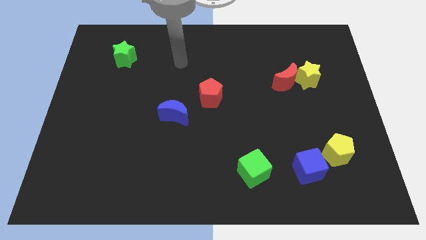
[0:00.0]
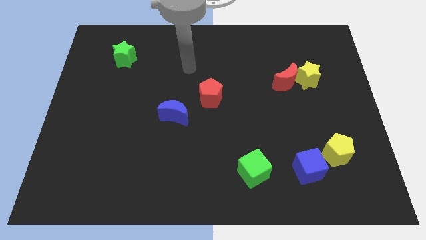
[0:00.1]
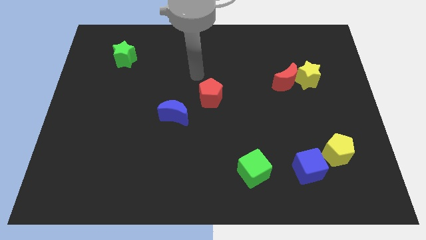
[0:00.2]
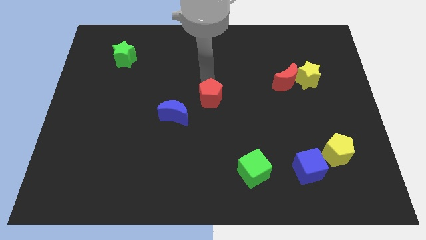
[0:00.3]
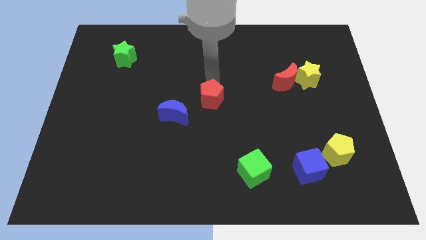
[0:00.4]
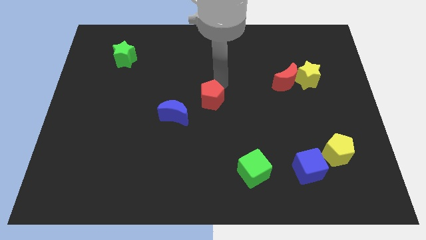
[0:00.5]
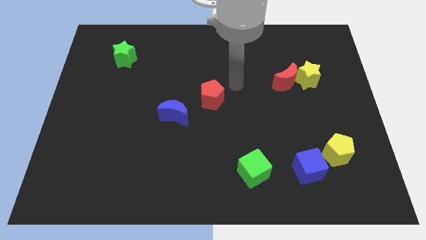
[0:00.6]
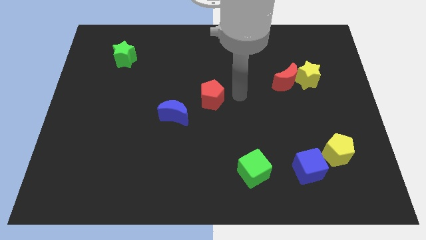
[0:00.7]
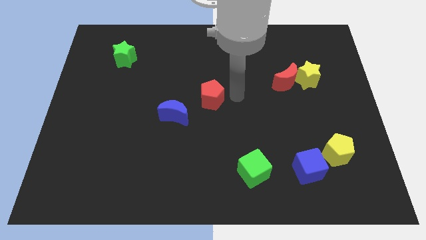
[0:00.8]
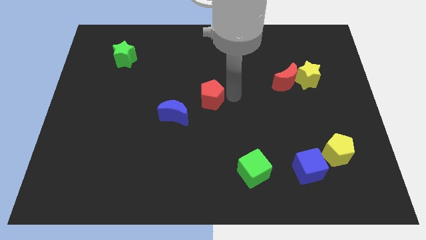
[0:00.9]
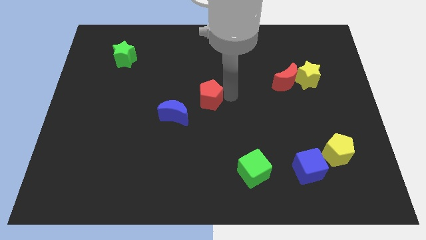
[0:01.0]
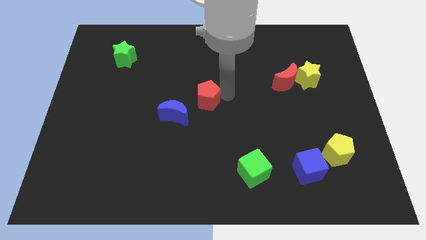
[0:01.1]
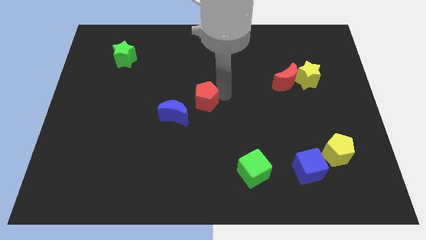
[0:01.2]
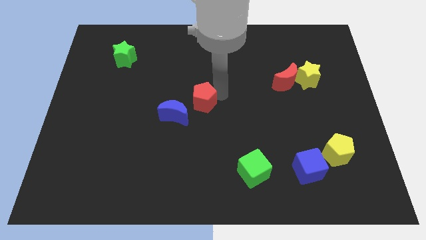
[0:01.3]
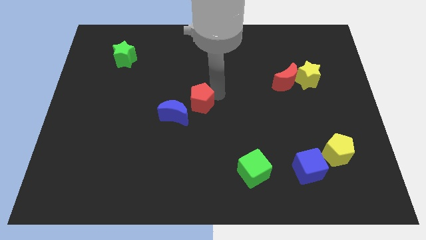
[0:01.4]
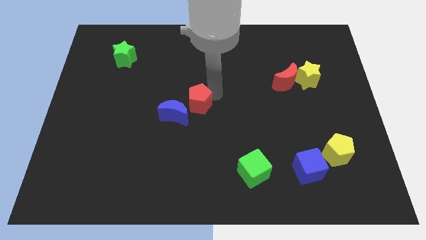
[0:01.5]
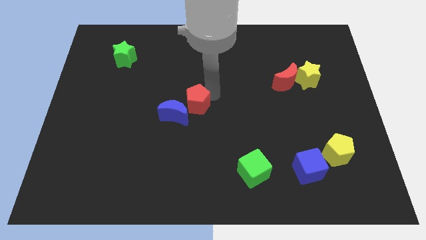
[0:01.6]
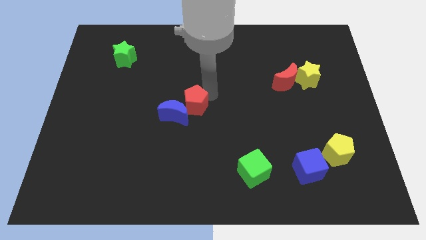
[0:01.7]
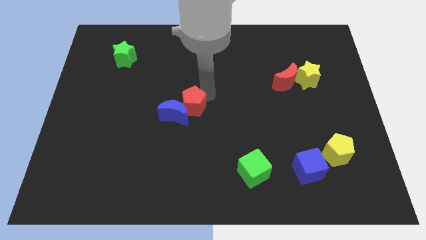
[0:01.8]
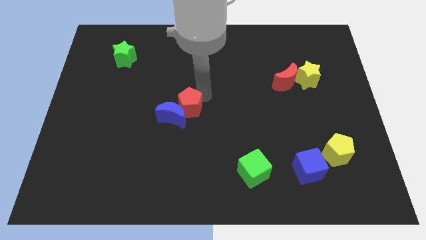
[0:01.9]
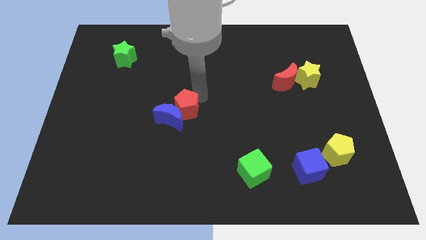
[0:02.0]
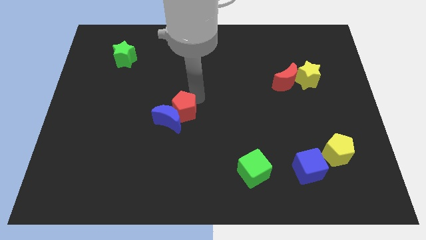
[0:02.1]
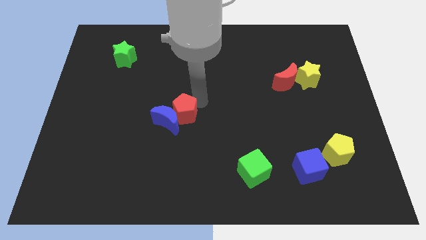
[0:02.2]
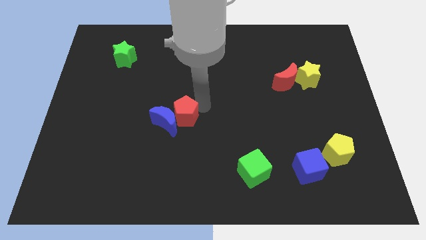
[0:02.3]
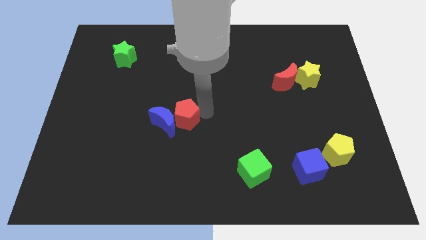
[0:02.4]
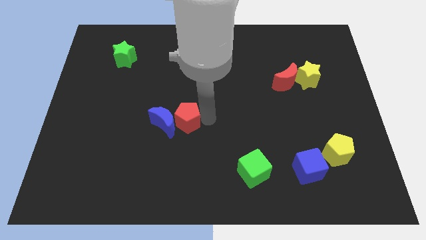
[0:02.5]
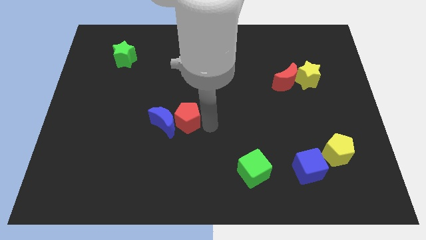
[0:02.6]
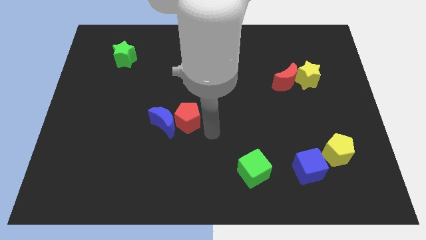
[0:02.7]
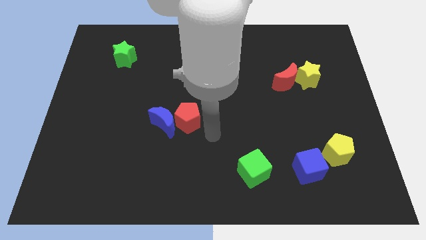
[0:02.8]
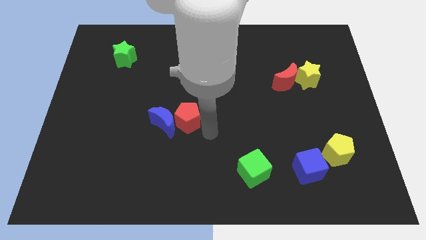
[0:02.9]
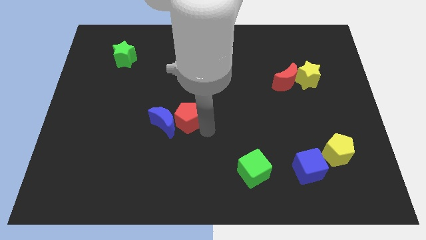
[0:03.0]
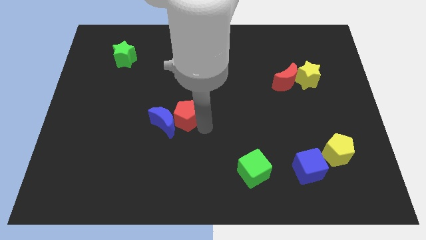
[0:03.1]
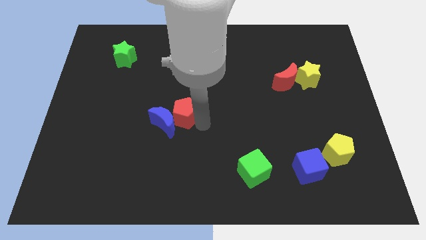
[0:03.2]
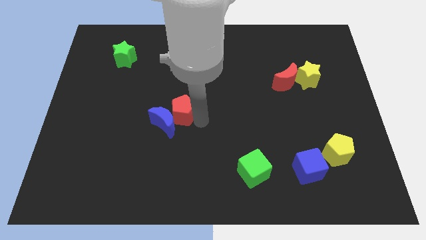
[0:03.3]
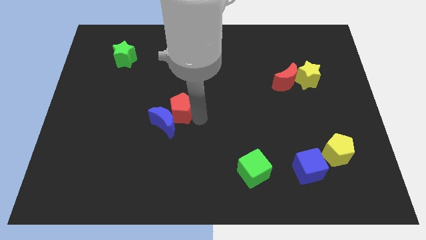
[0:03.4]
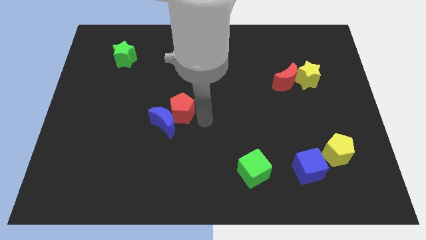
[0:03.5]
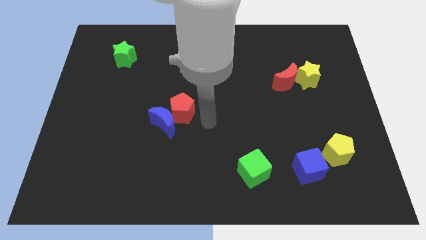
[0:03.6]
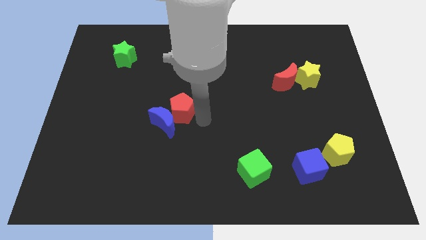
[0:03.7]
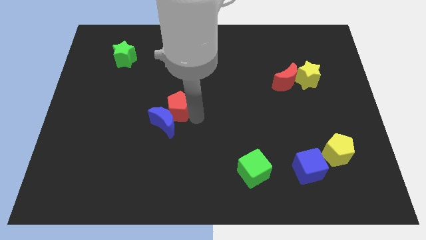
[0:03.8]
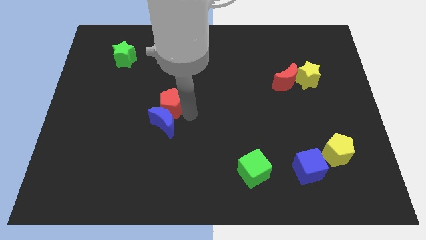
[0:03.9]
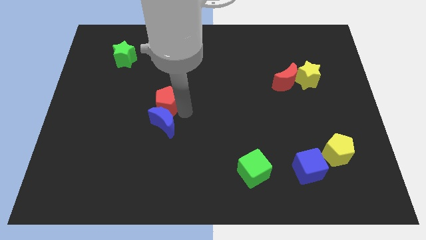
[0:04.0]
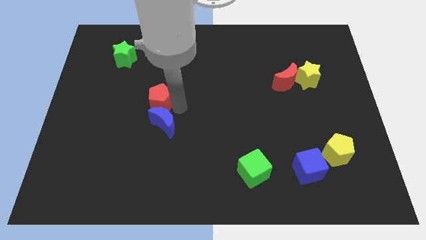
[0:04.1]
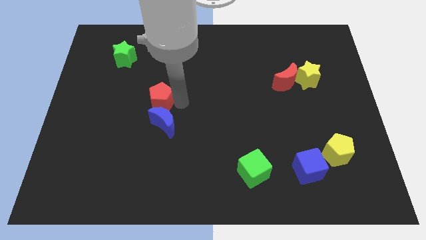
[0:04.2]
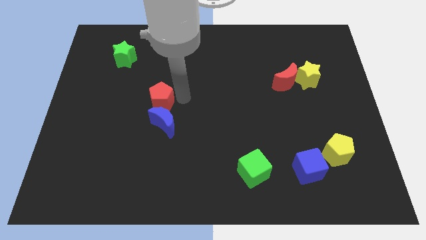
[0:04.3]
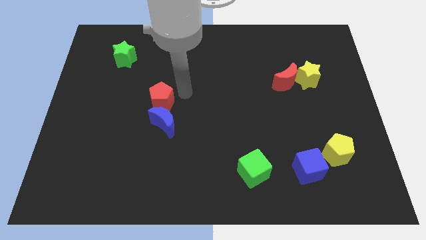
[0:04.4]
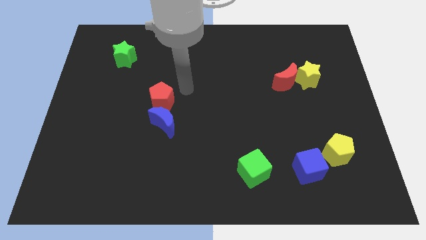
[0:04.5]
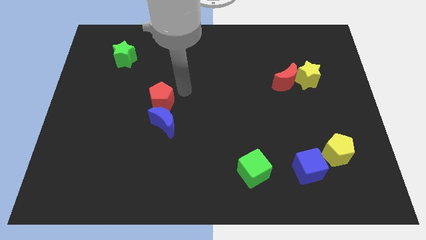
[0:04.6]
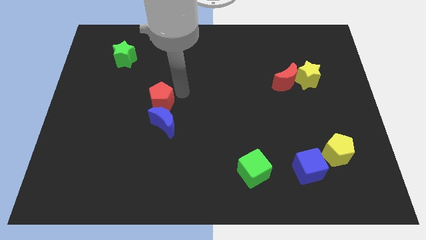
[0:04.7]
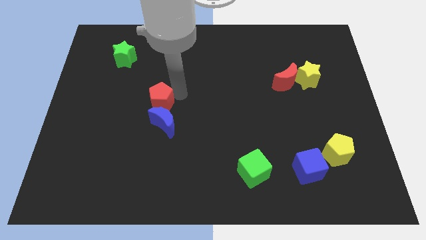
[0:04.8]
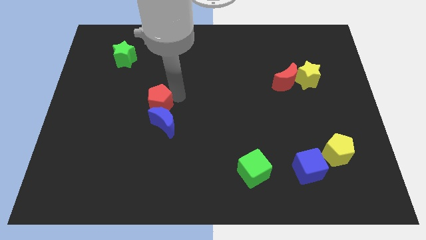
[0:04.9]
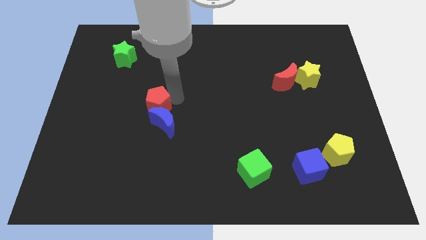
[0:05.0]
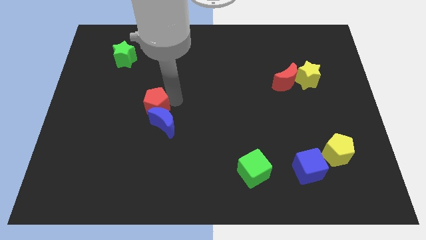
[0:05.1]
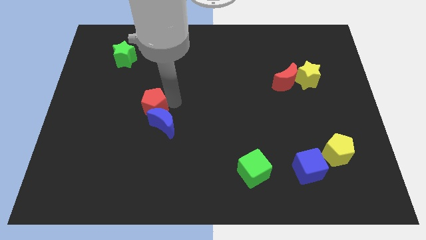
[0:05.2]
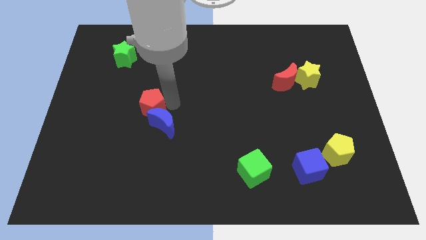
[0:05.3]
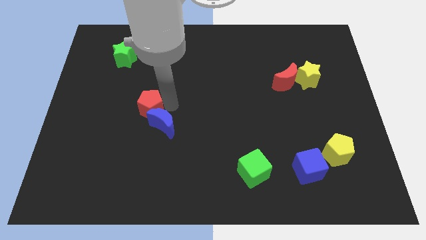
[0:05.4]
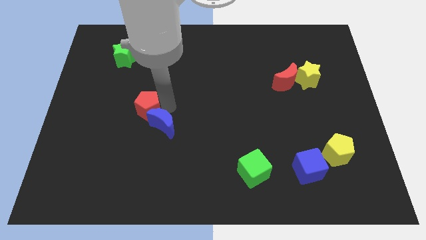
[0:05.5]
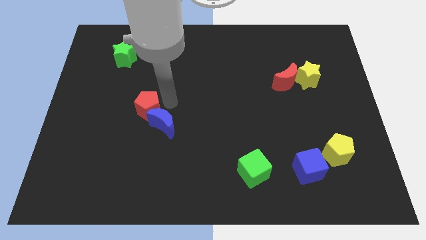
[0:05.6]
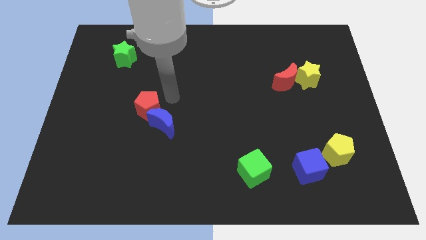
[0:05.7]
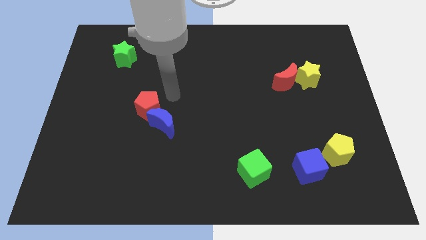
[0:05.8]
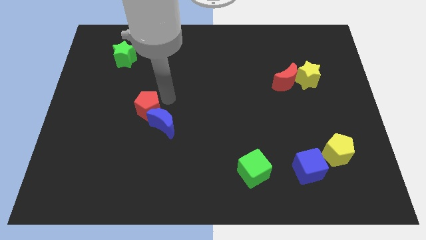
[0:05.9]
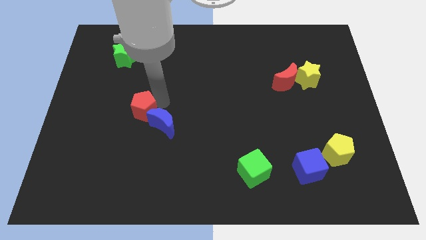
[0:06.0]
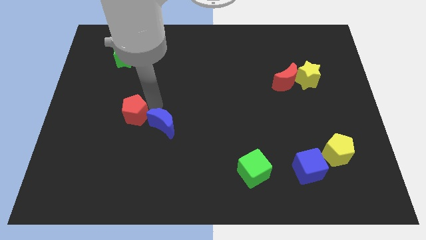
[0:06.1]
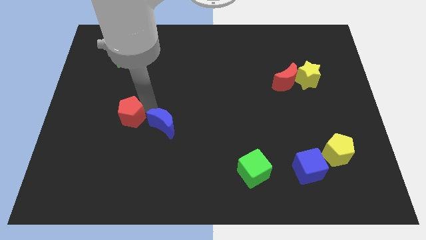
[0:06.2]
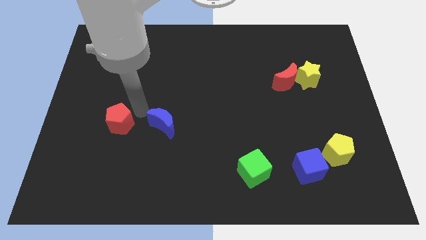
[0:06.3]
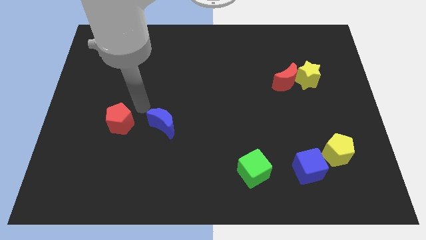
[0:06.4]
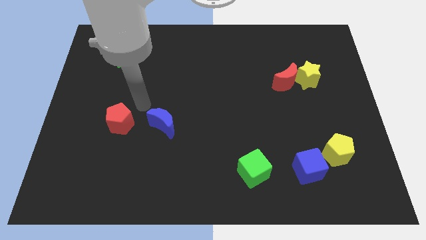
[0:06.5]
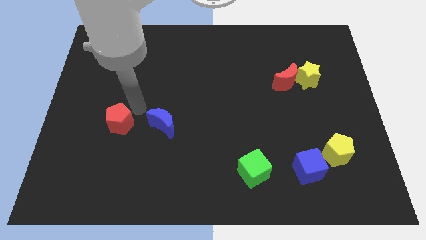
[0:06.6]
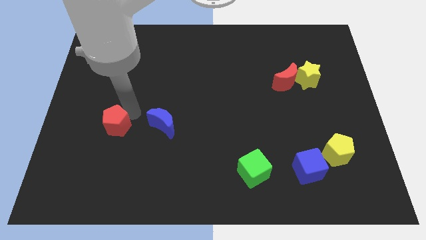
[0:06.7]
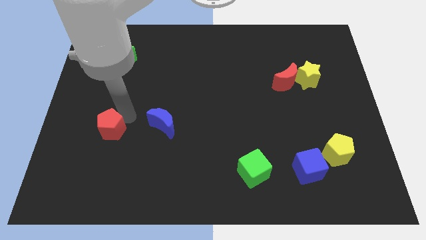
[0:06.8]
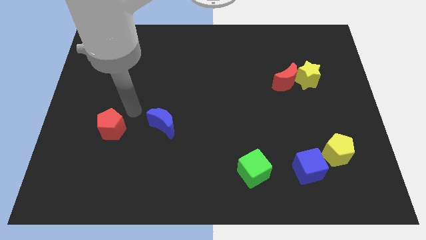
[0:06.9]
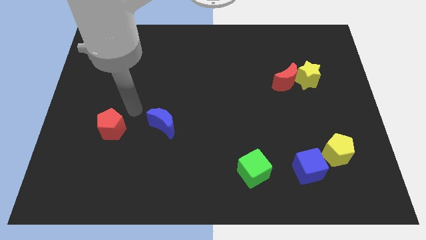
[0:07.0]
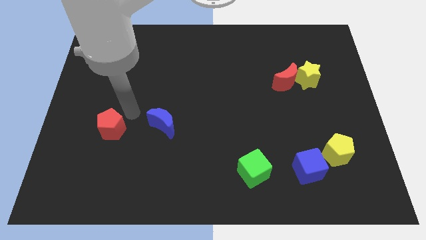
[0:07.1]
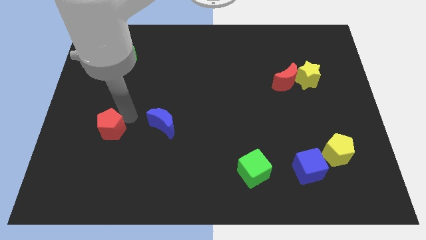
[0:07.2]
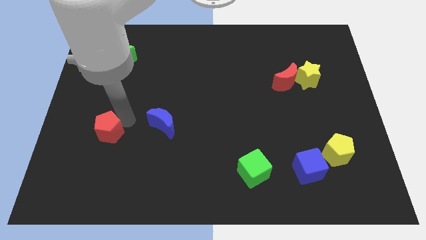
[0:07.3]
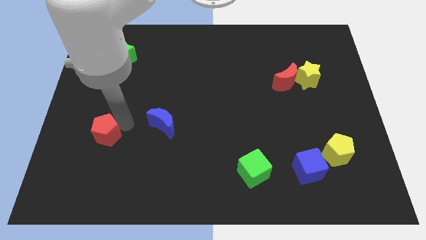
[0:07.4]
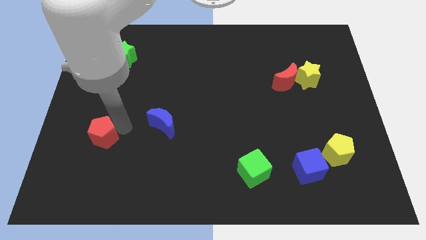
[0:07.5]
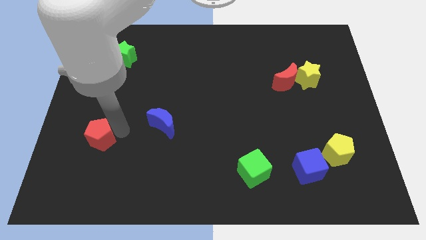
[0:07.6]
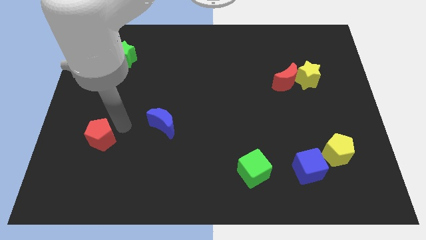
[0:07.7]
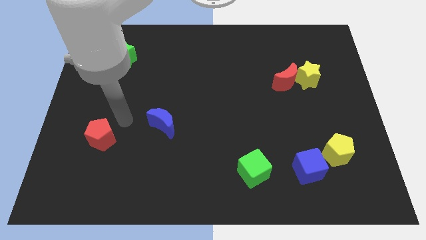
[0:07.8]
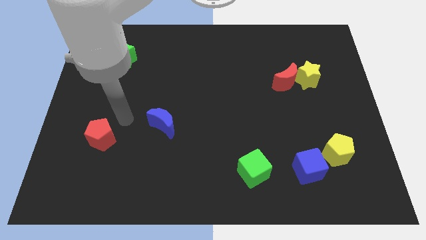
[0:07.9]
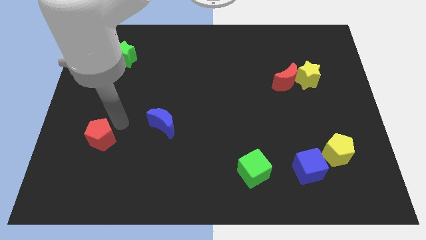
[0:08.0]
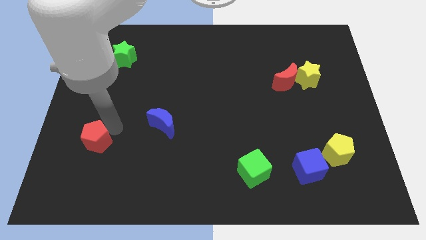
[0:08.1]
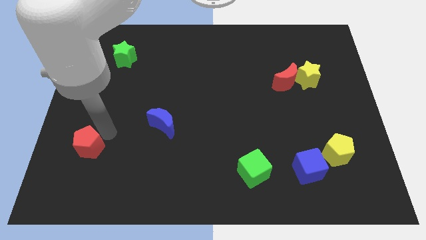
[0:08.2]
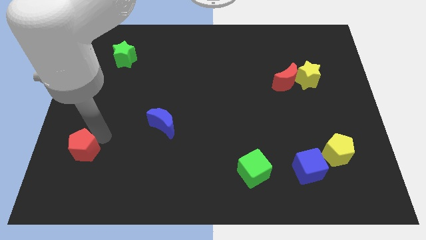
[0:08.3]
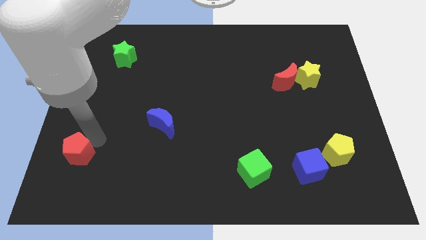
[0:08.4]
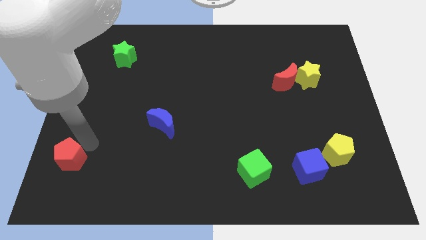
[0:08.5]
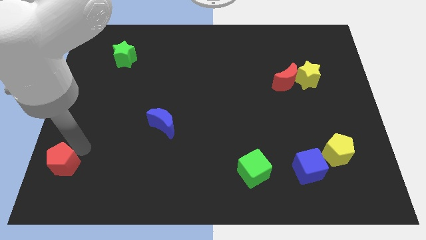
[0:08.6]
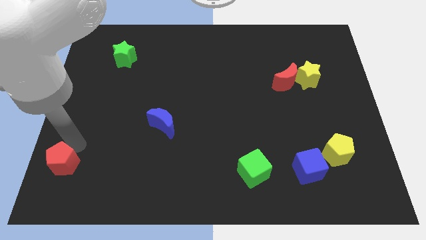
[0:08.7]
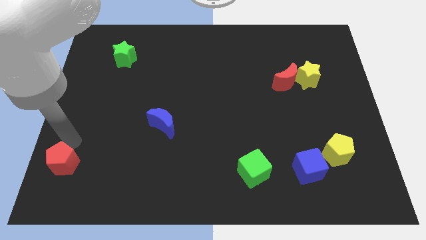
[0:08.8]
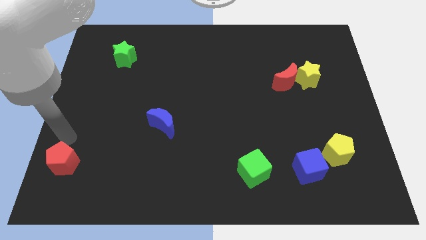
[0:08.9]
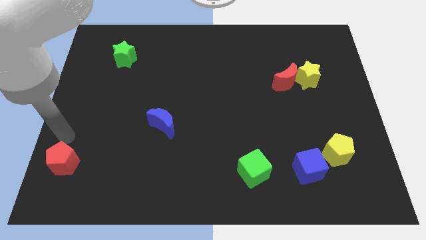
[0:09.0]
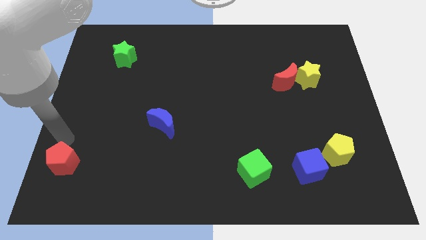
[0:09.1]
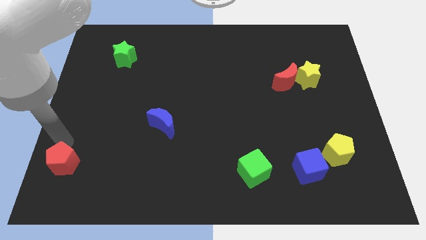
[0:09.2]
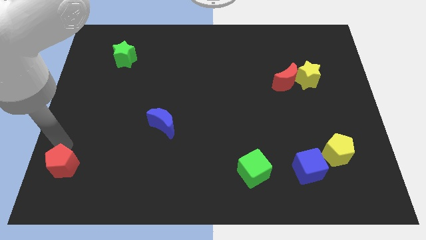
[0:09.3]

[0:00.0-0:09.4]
push the red pentagon to the bottom left corner
